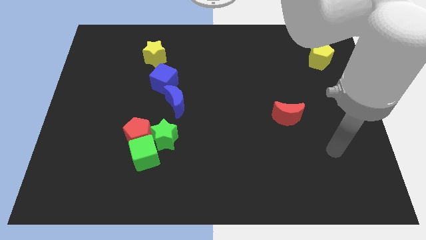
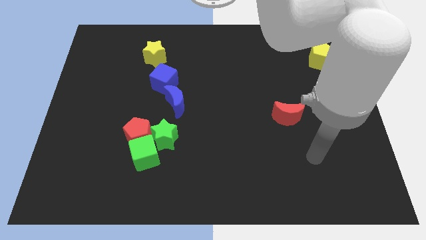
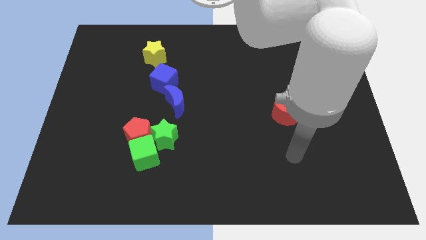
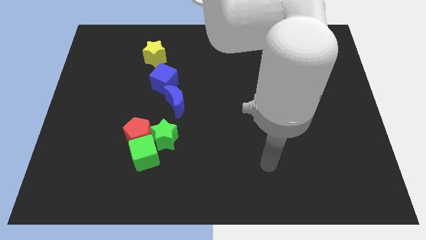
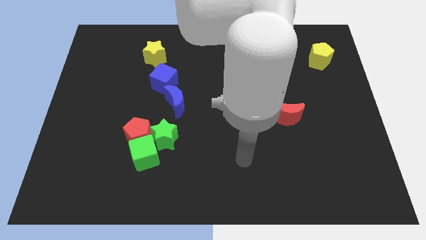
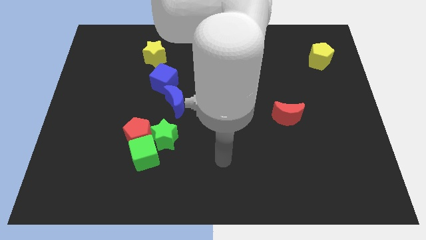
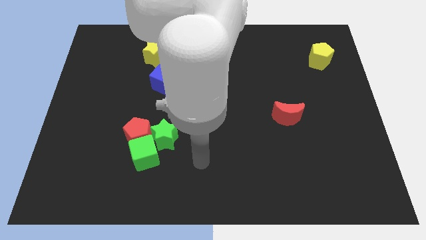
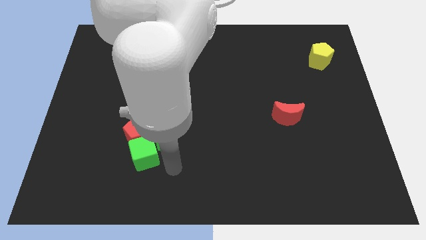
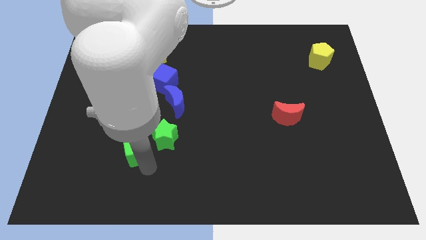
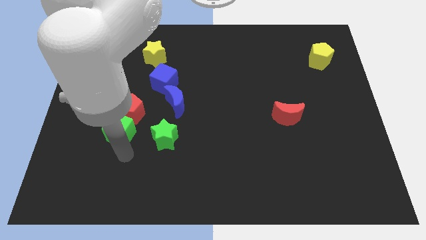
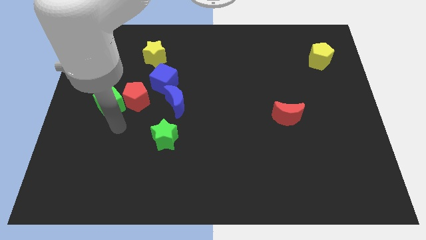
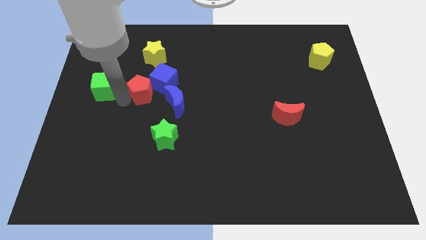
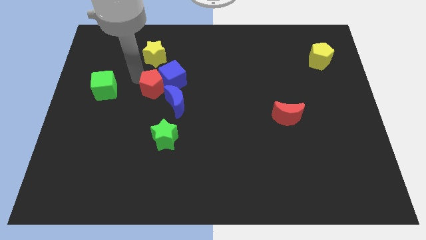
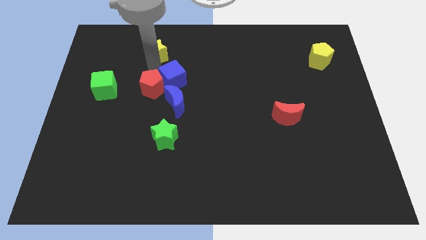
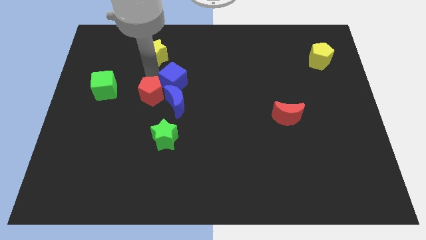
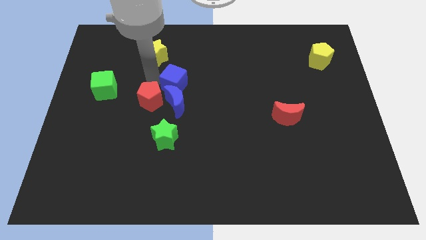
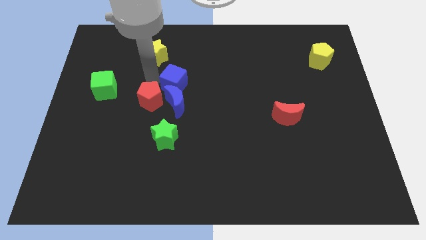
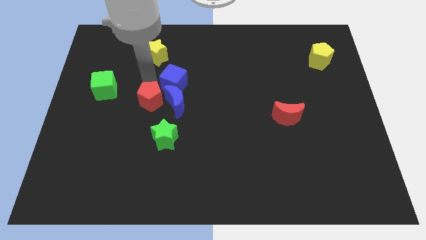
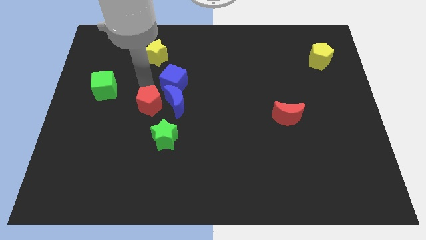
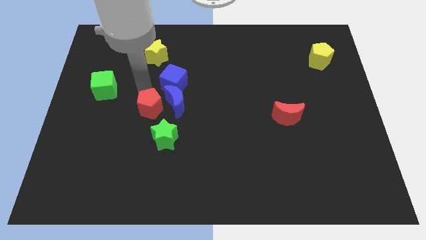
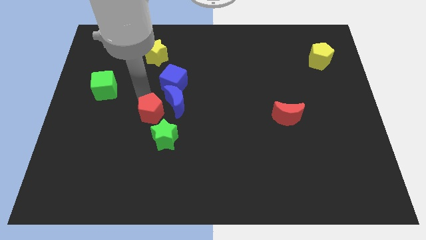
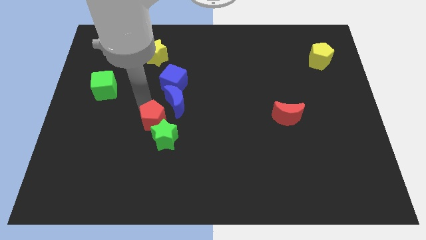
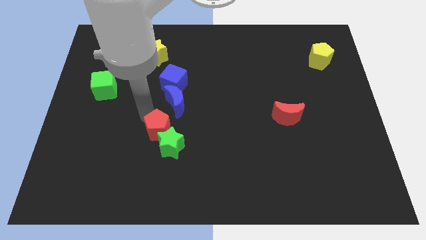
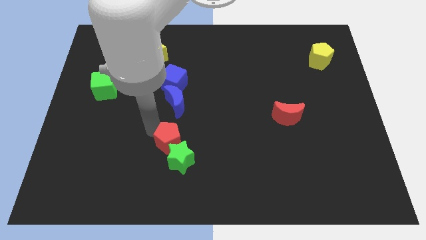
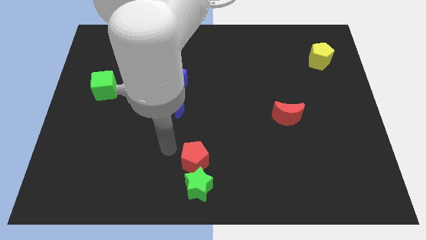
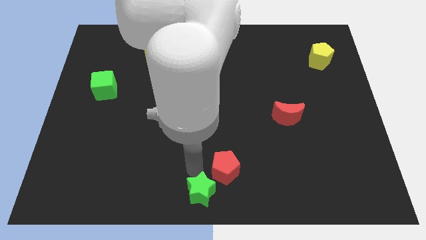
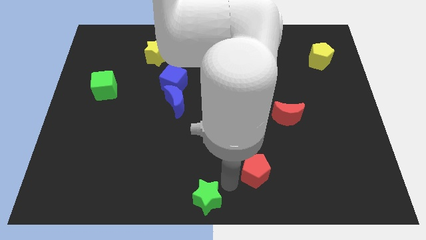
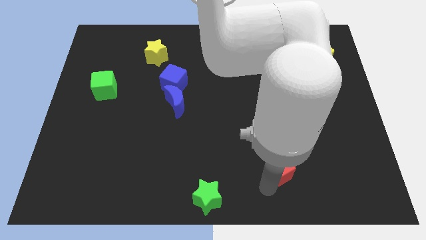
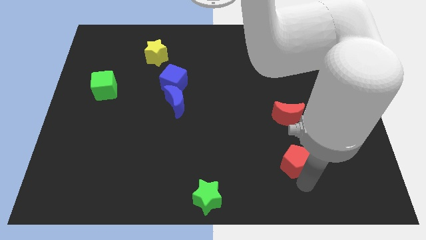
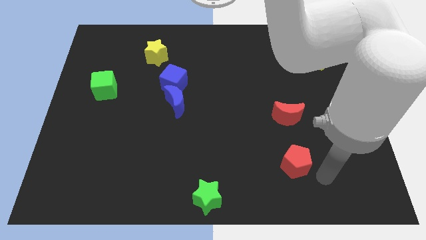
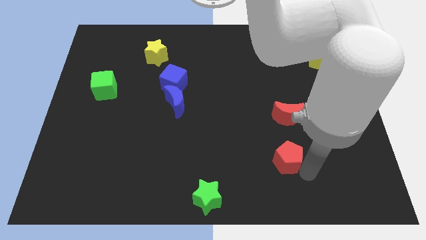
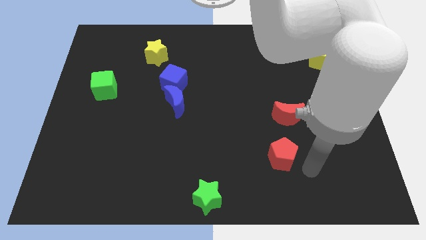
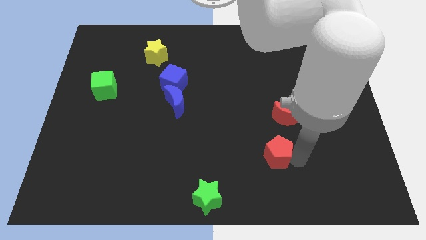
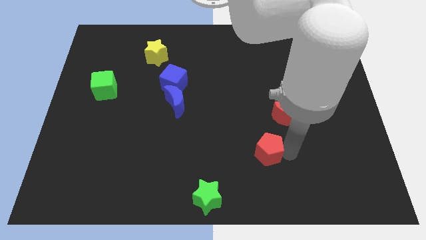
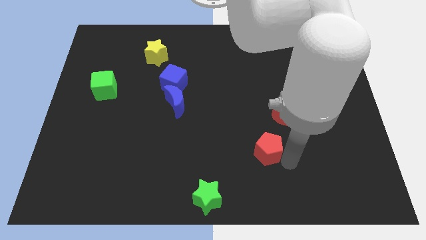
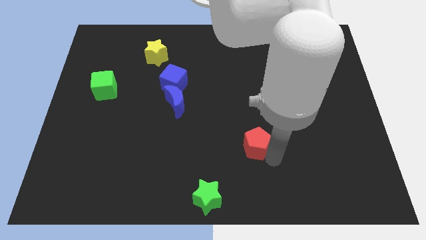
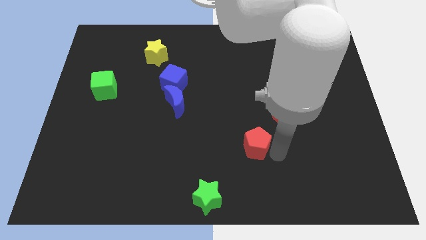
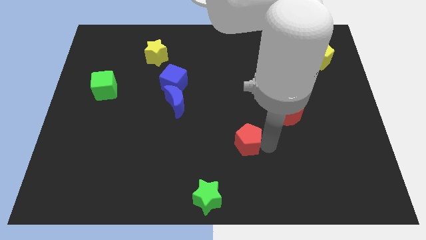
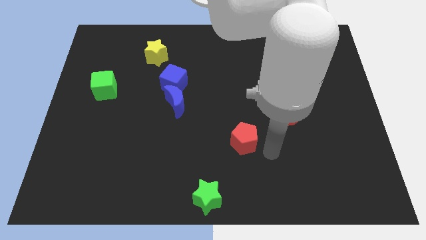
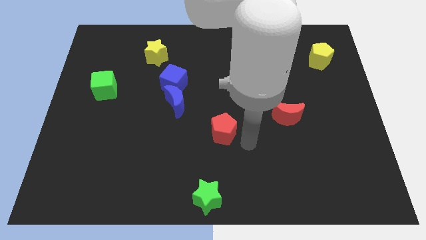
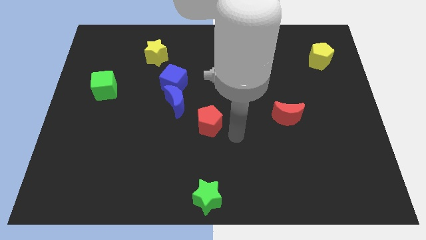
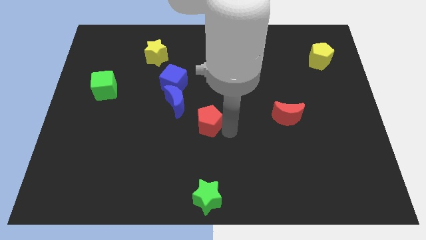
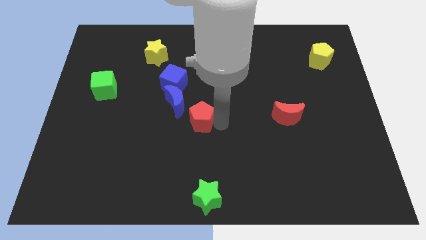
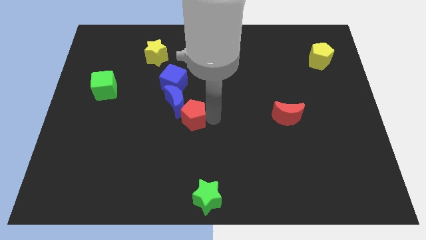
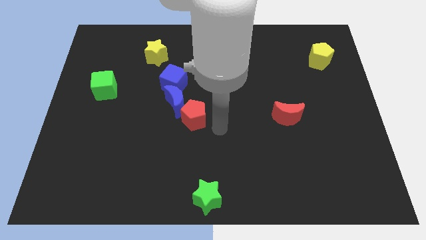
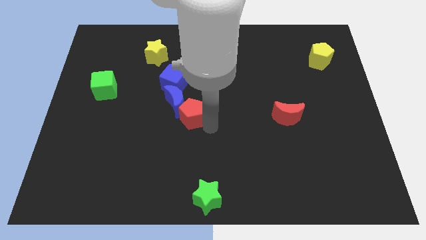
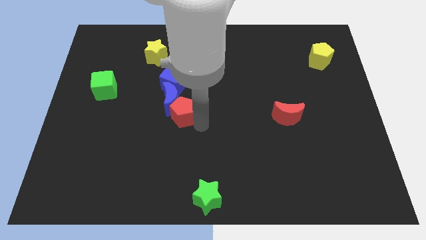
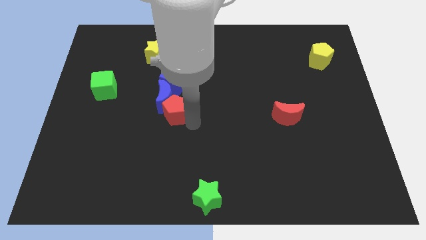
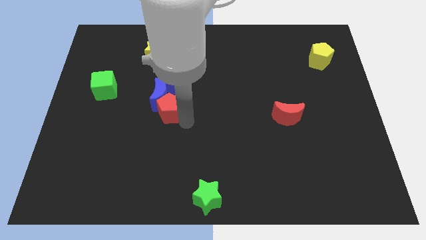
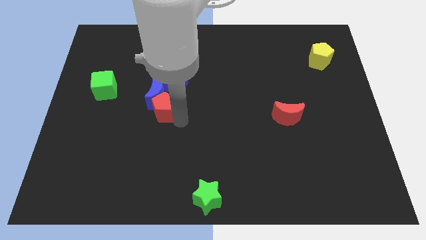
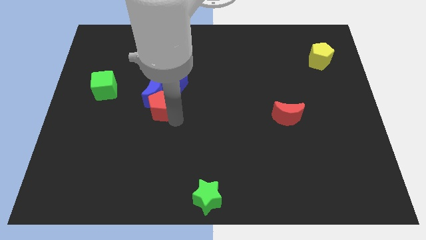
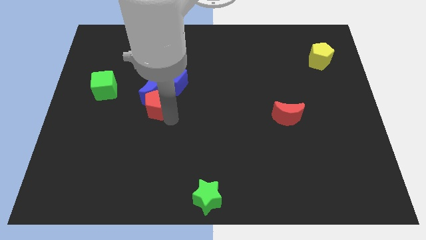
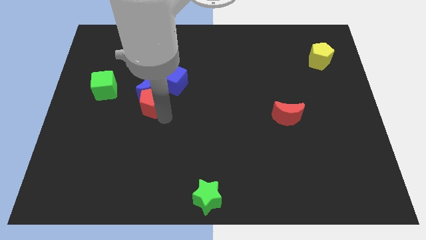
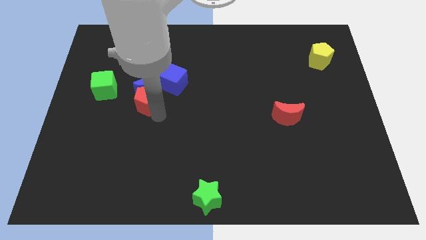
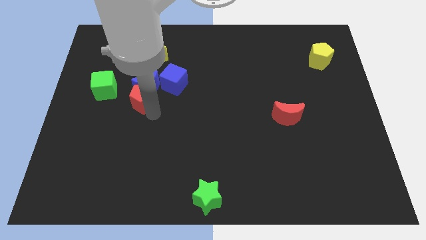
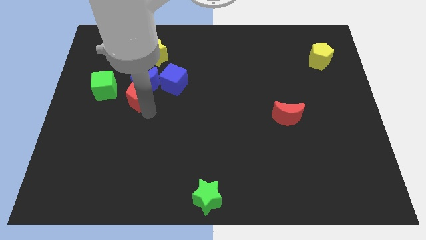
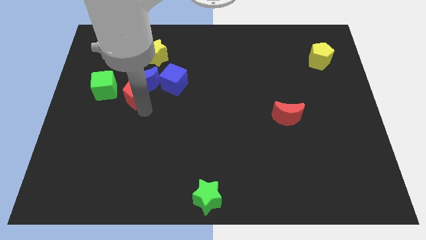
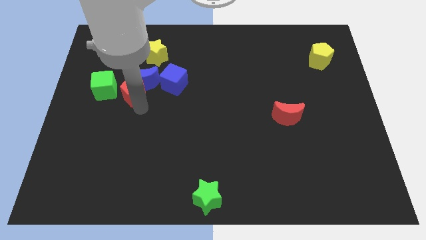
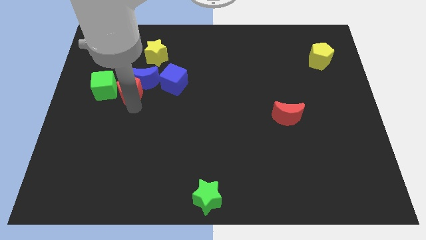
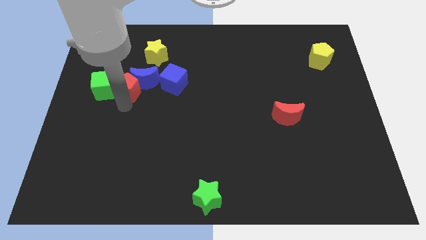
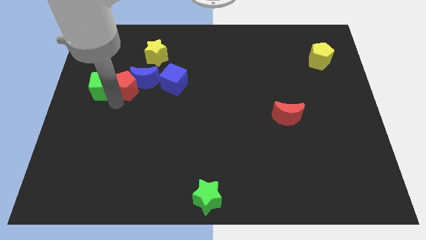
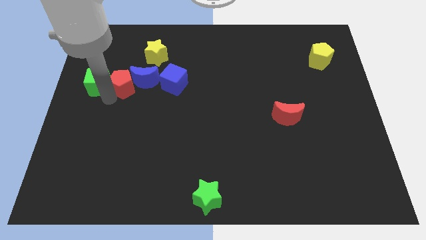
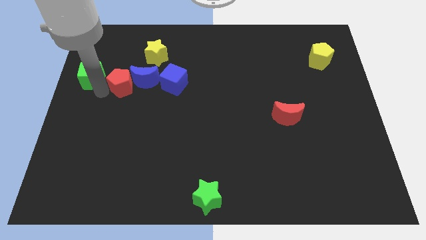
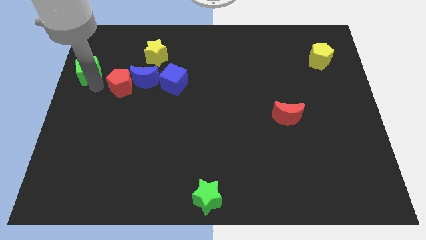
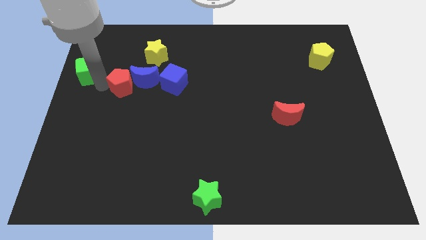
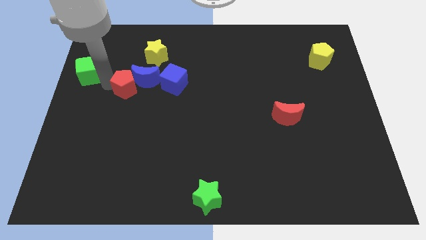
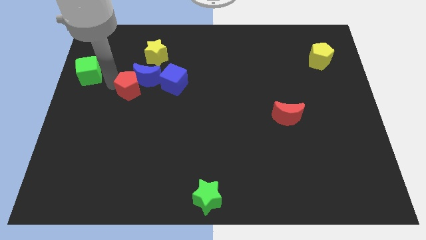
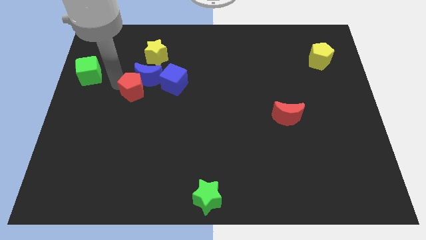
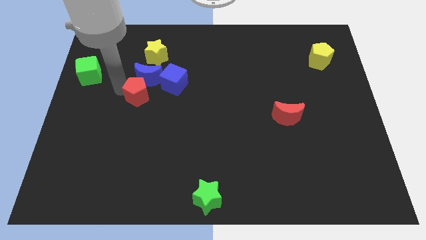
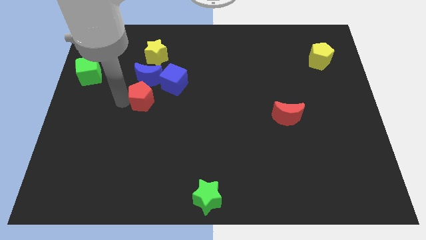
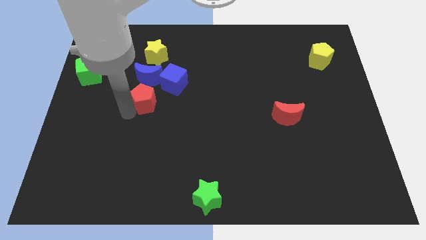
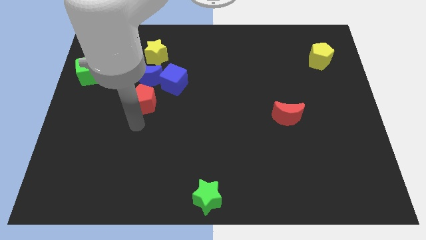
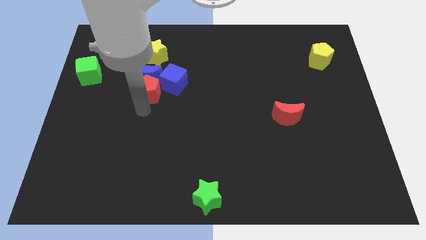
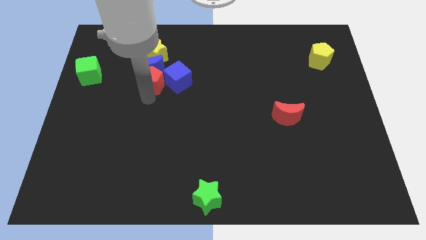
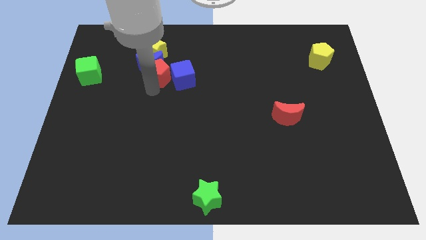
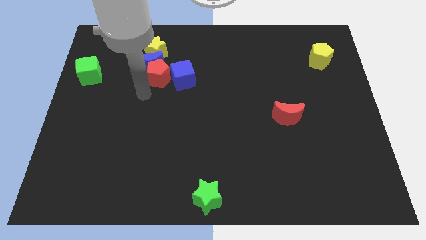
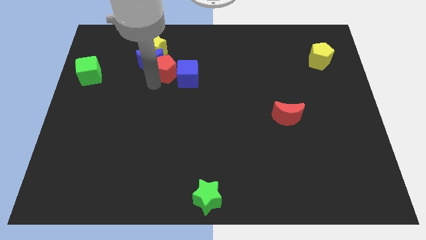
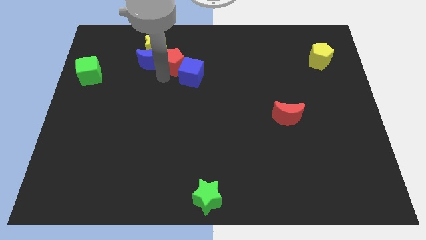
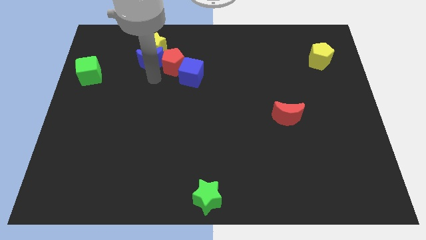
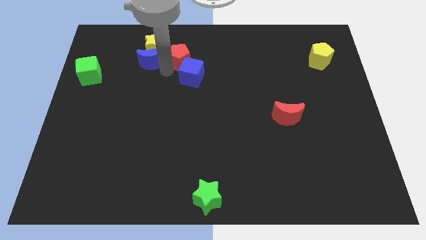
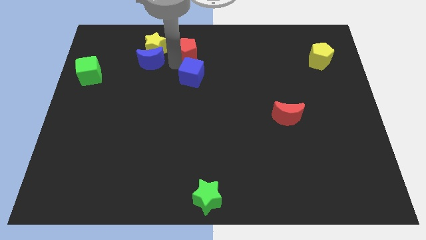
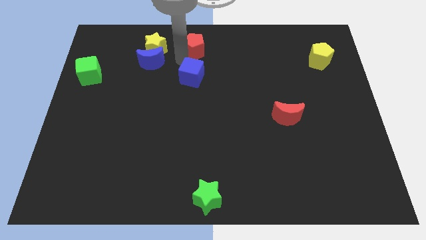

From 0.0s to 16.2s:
move the red pentagon to the top
